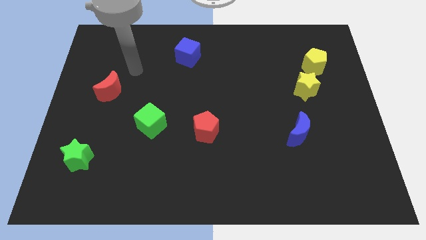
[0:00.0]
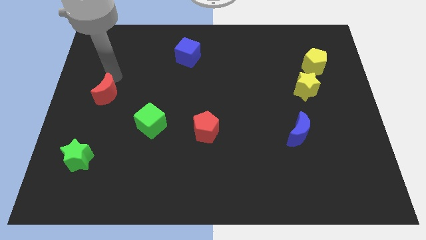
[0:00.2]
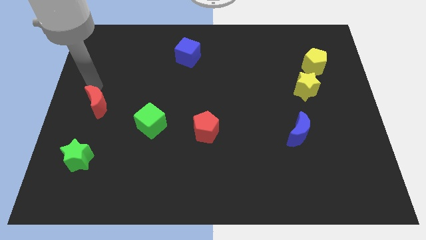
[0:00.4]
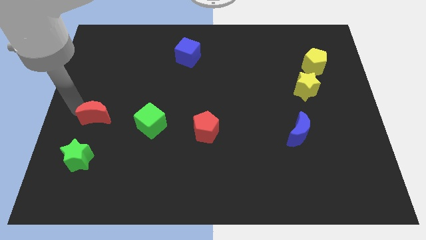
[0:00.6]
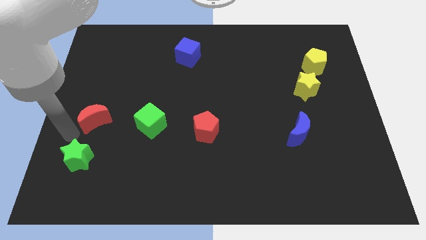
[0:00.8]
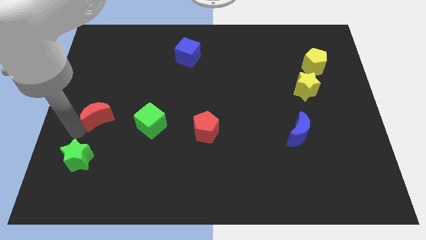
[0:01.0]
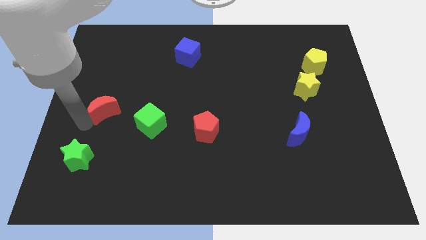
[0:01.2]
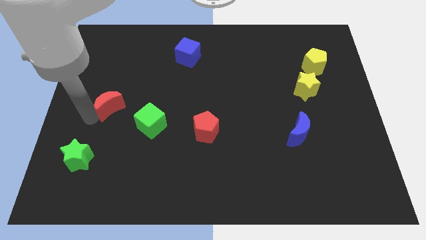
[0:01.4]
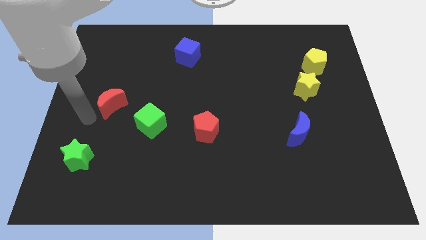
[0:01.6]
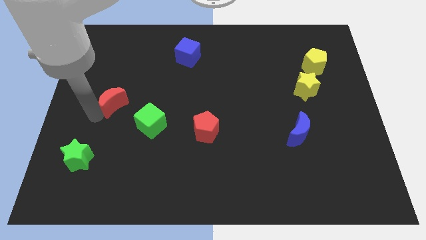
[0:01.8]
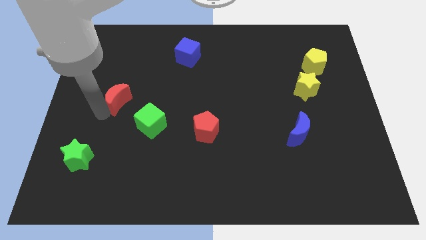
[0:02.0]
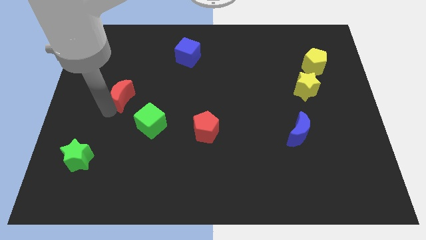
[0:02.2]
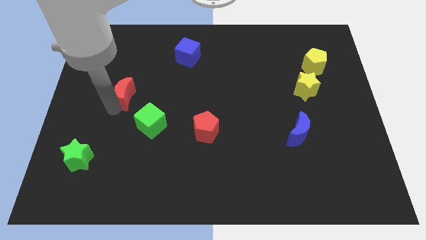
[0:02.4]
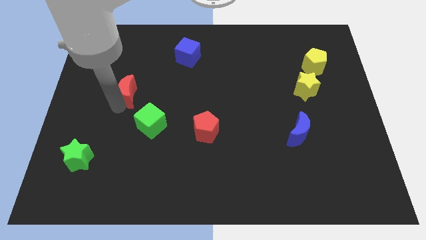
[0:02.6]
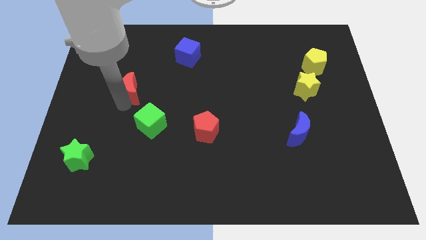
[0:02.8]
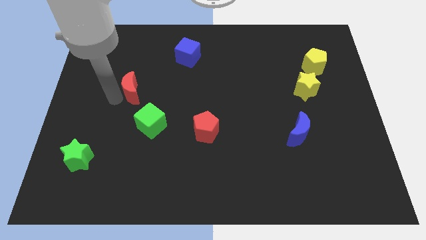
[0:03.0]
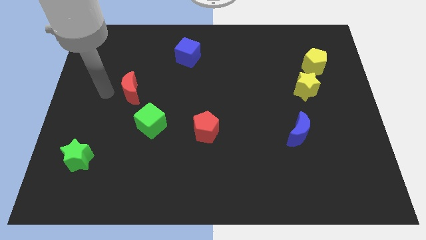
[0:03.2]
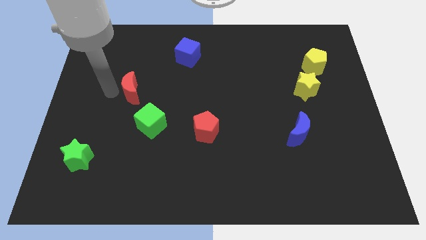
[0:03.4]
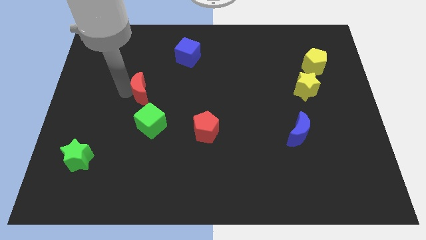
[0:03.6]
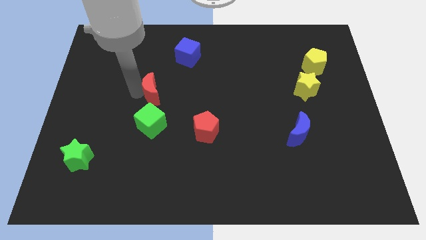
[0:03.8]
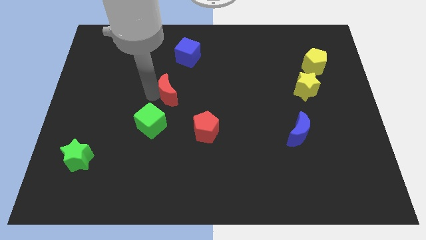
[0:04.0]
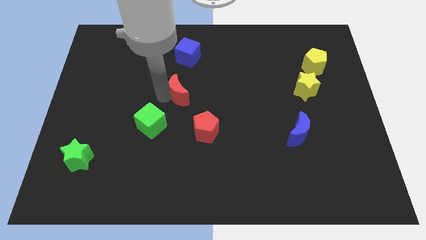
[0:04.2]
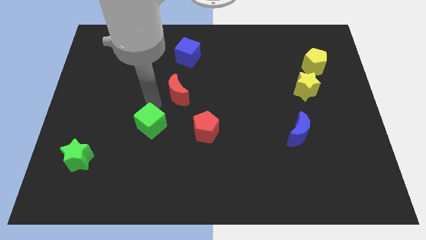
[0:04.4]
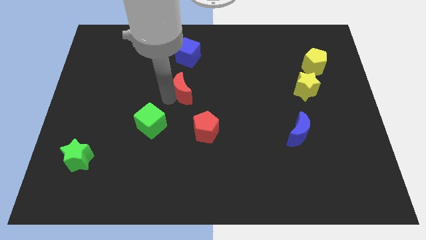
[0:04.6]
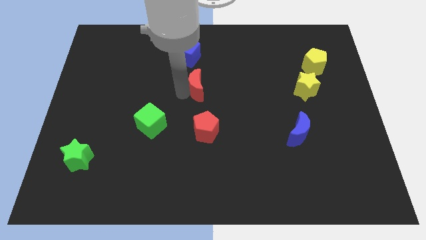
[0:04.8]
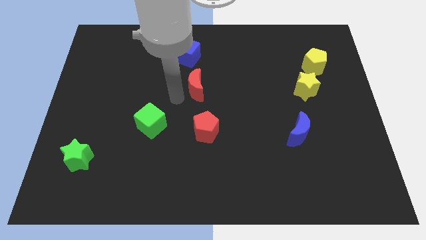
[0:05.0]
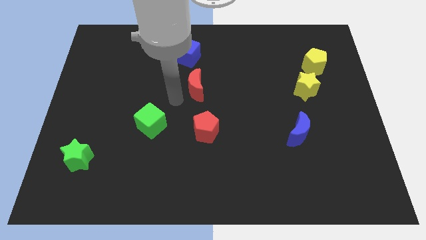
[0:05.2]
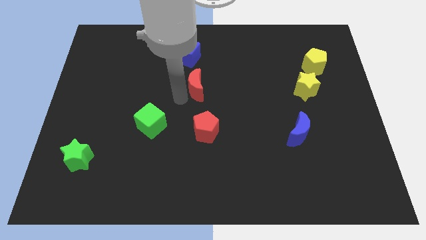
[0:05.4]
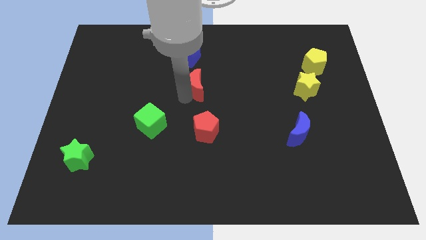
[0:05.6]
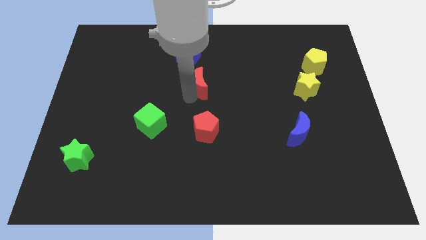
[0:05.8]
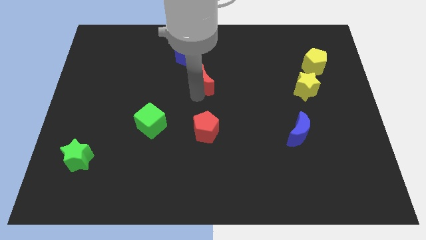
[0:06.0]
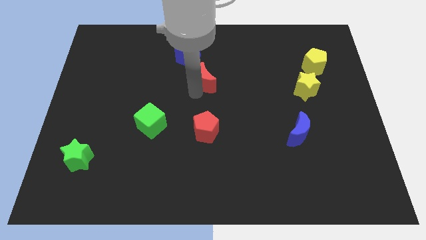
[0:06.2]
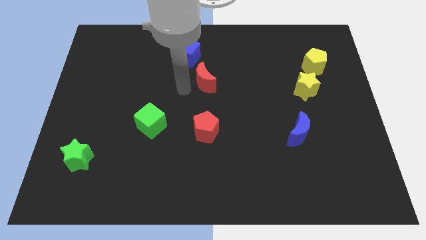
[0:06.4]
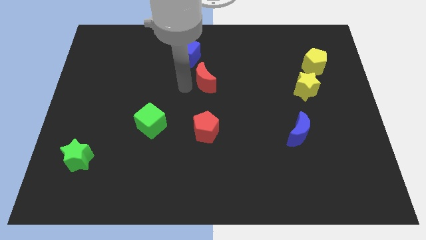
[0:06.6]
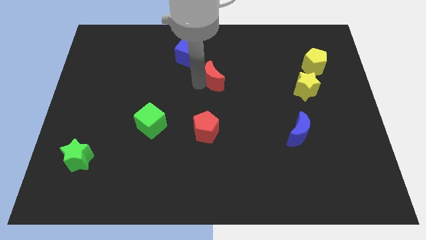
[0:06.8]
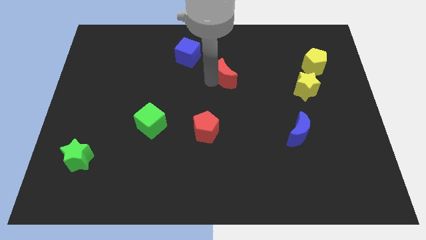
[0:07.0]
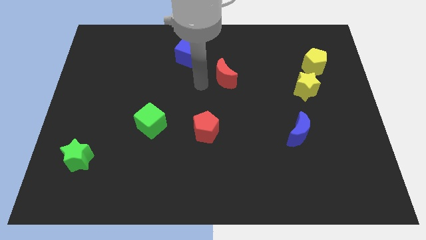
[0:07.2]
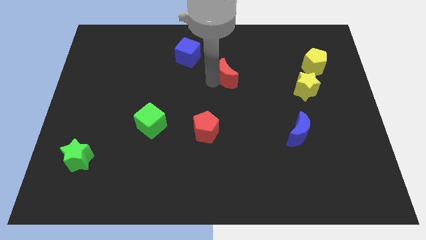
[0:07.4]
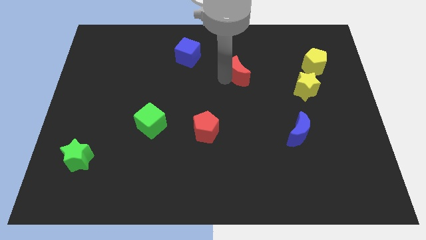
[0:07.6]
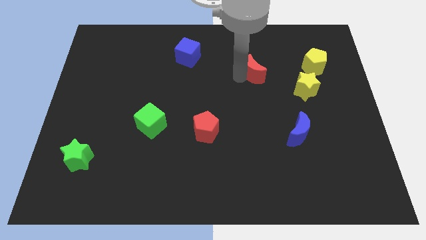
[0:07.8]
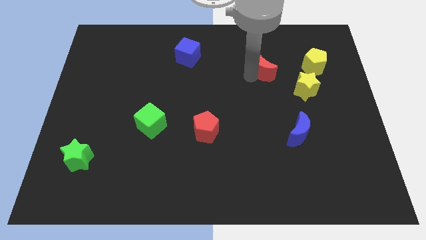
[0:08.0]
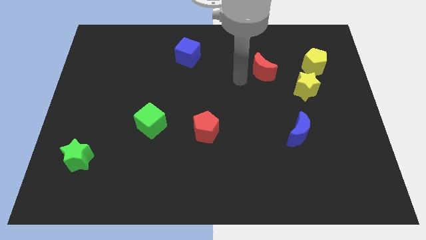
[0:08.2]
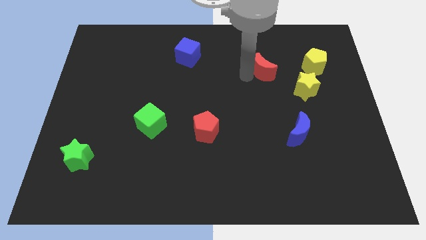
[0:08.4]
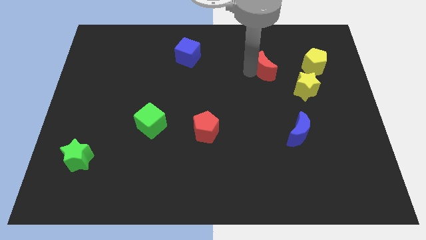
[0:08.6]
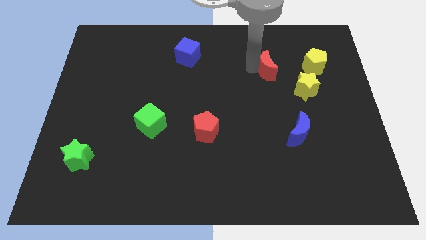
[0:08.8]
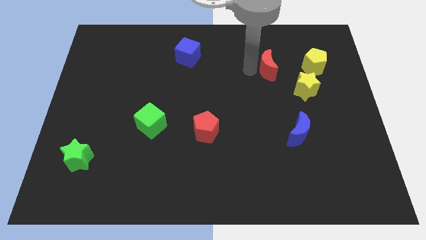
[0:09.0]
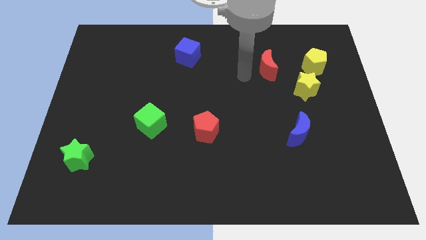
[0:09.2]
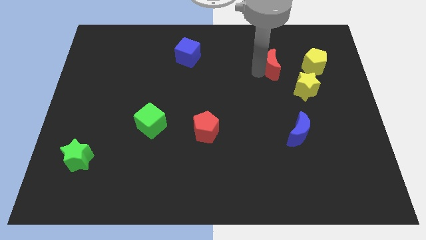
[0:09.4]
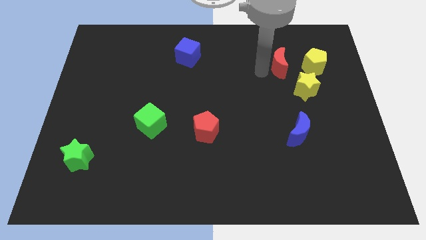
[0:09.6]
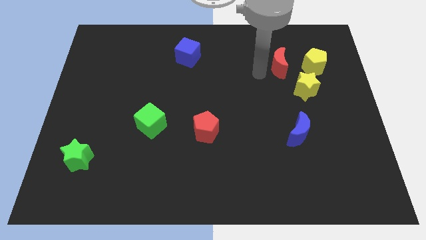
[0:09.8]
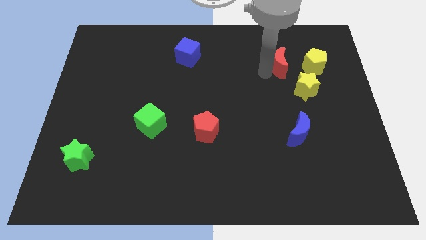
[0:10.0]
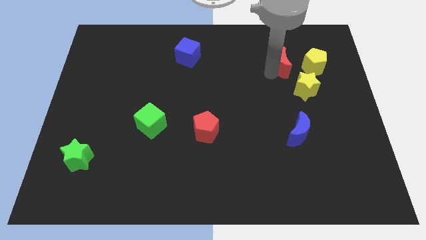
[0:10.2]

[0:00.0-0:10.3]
put the red moon to the top of the yellow star

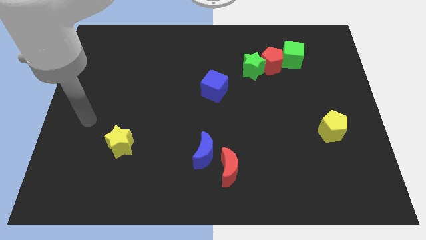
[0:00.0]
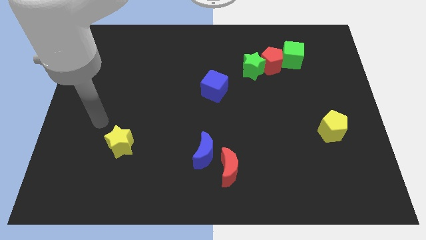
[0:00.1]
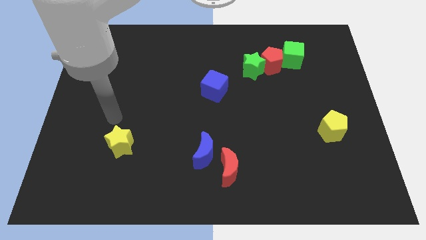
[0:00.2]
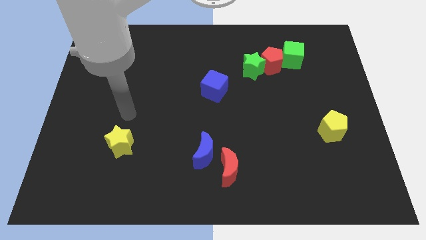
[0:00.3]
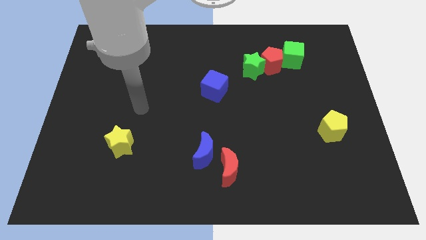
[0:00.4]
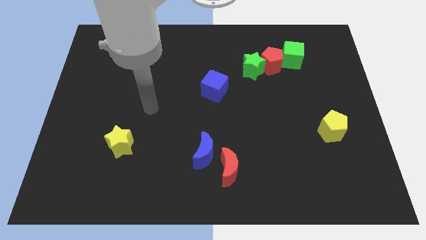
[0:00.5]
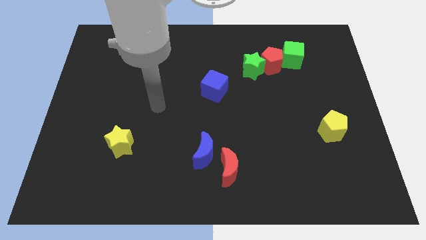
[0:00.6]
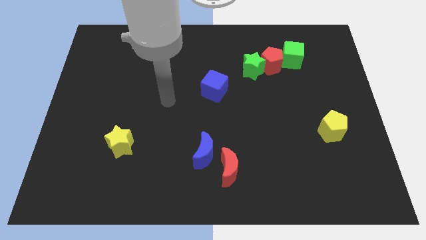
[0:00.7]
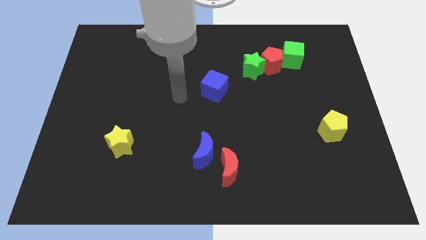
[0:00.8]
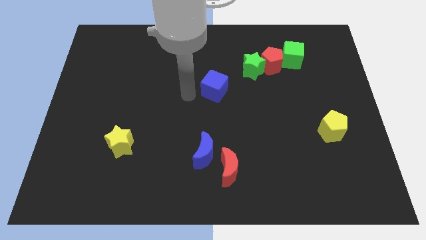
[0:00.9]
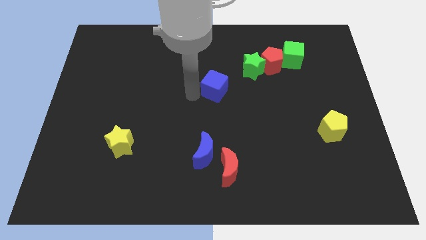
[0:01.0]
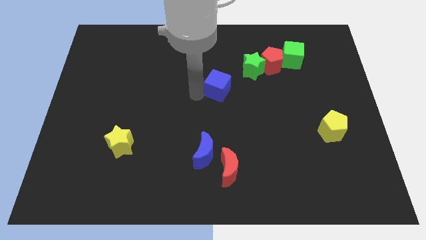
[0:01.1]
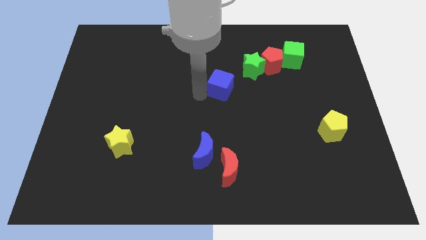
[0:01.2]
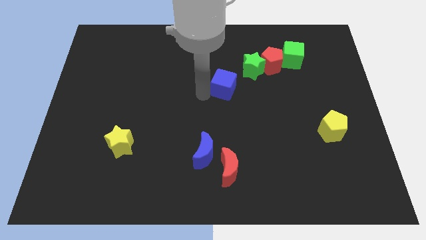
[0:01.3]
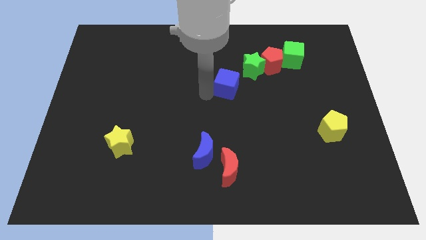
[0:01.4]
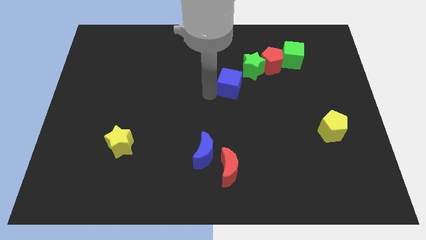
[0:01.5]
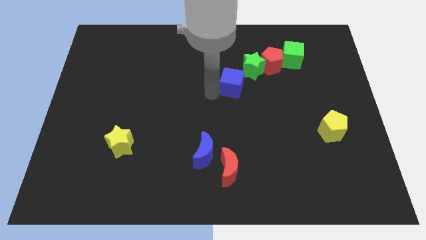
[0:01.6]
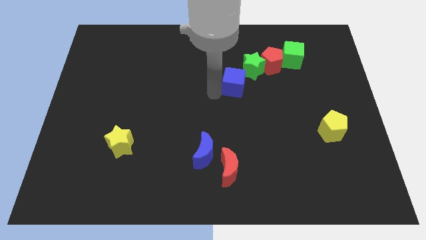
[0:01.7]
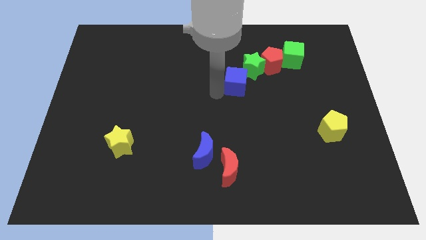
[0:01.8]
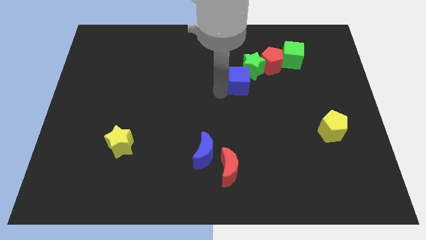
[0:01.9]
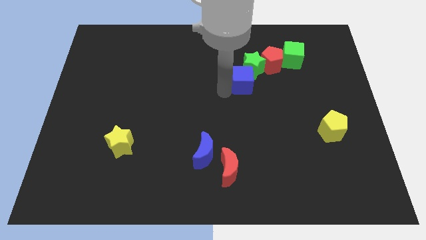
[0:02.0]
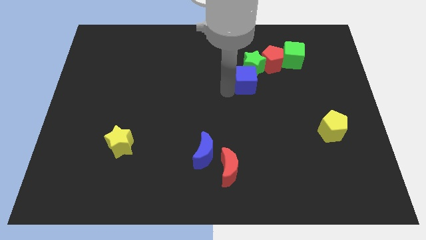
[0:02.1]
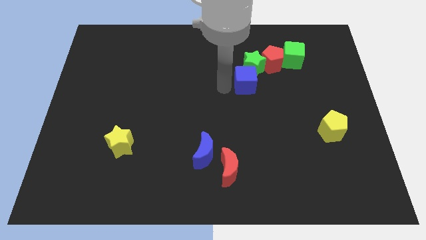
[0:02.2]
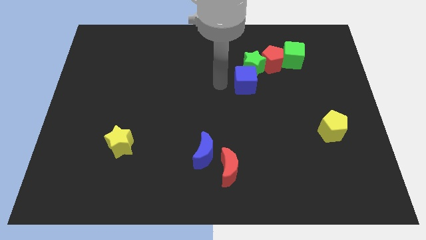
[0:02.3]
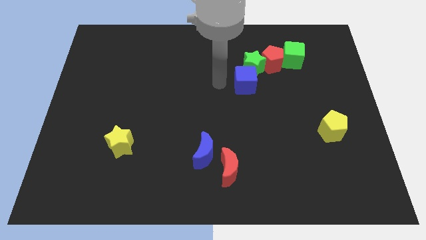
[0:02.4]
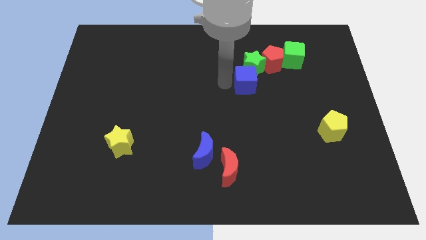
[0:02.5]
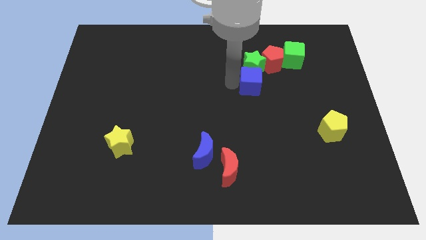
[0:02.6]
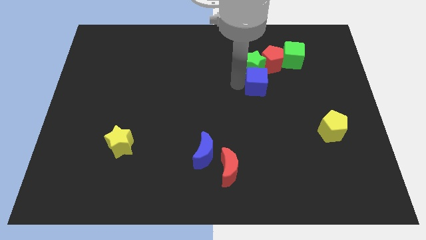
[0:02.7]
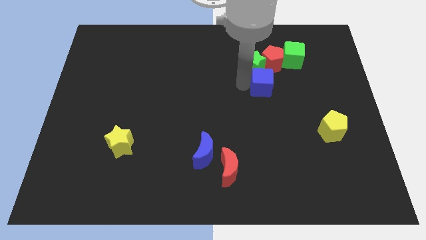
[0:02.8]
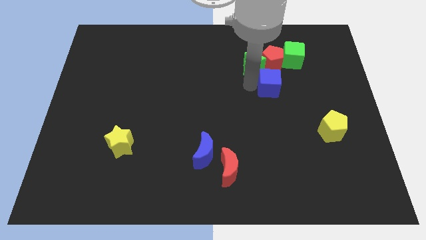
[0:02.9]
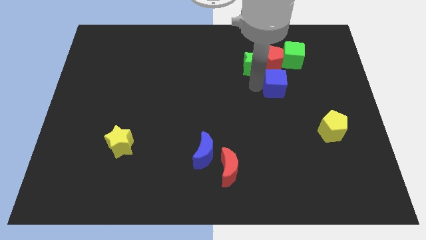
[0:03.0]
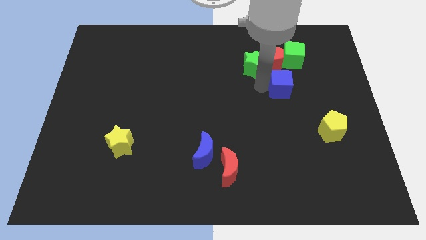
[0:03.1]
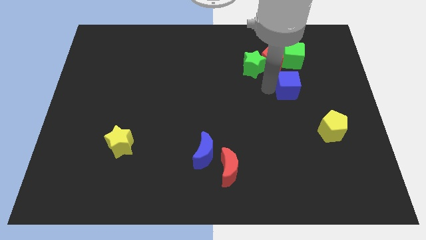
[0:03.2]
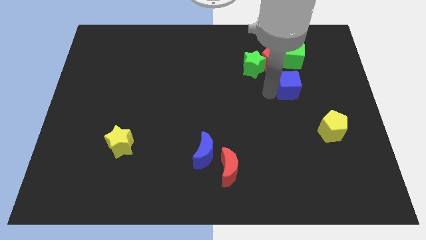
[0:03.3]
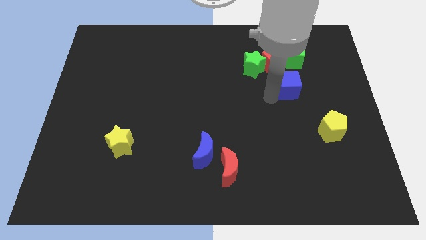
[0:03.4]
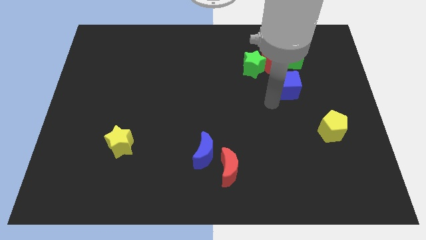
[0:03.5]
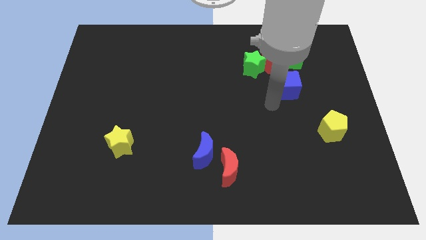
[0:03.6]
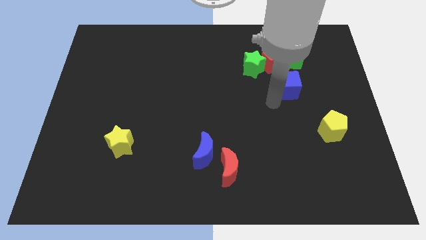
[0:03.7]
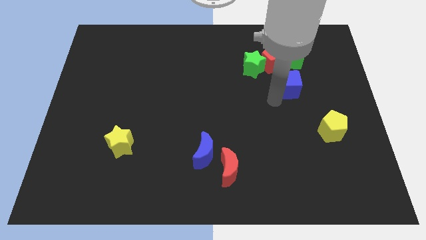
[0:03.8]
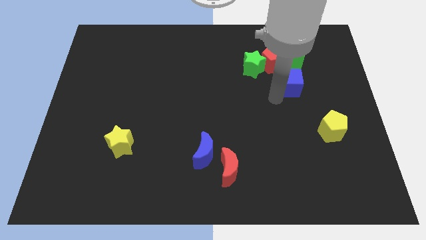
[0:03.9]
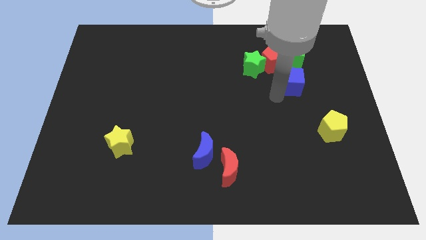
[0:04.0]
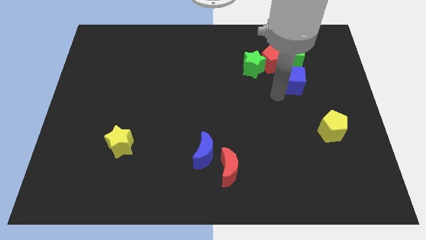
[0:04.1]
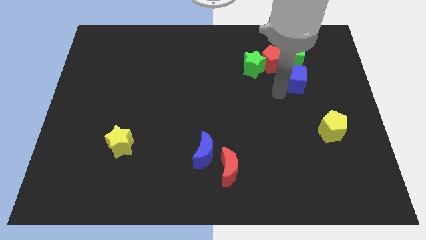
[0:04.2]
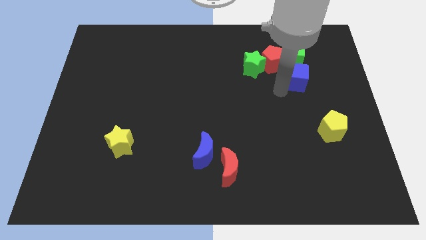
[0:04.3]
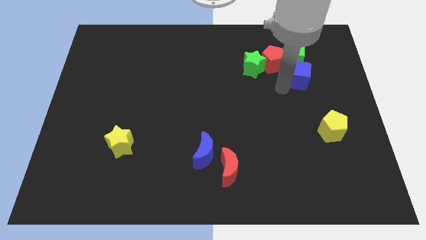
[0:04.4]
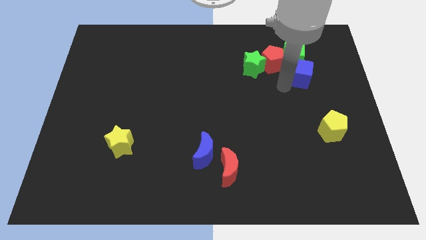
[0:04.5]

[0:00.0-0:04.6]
push the blue cube right of the red pentagon
